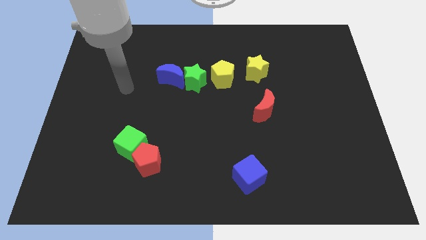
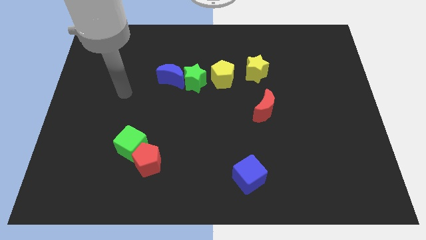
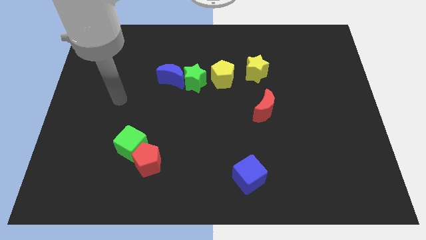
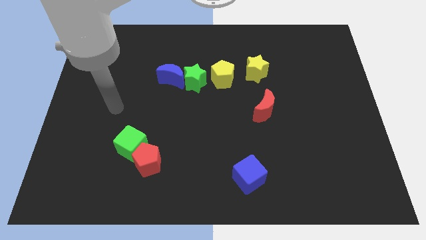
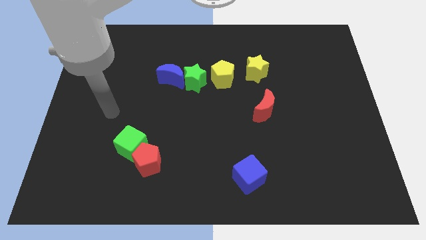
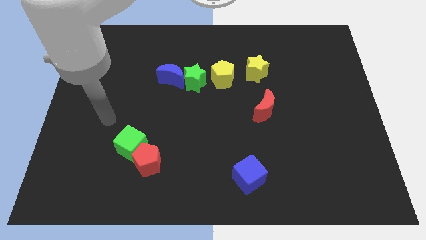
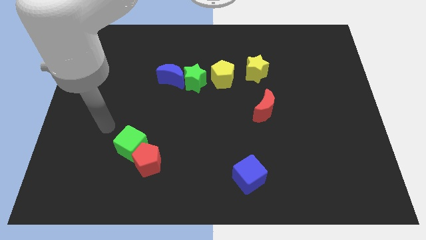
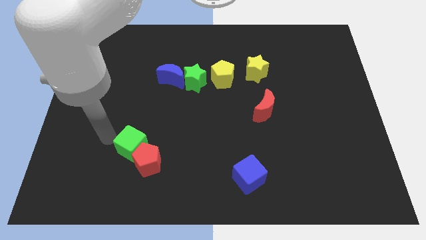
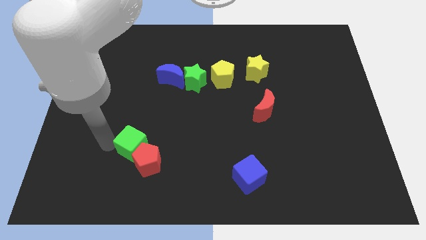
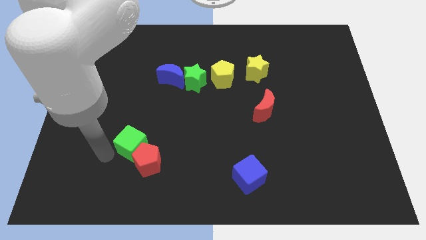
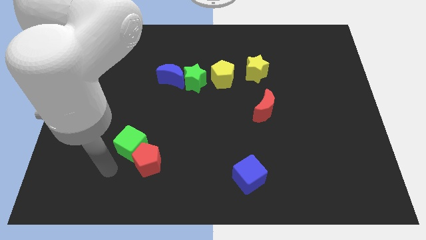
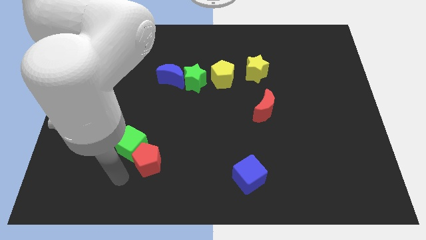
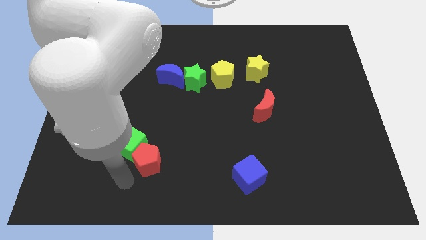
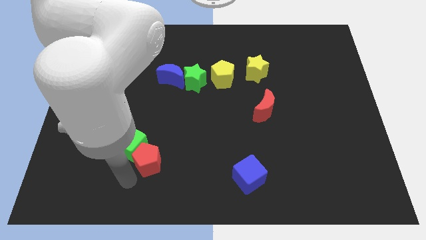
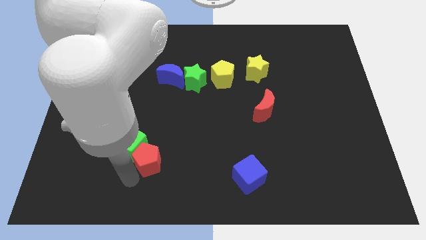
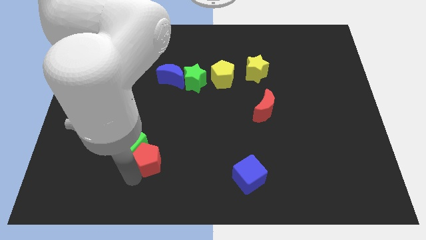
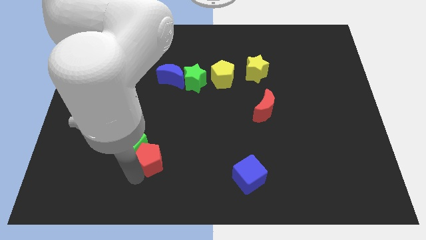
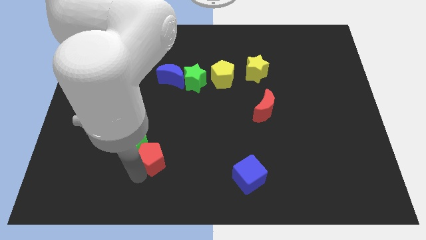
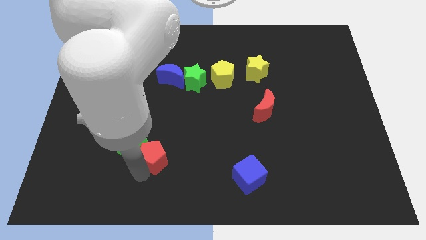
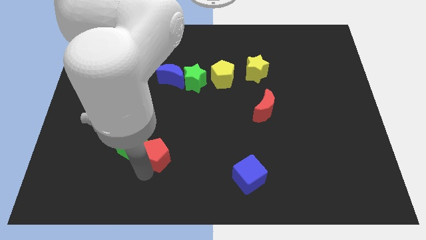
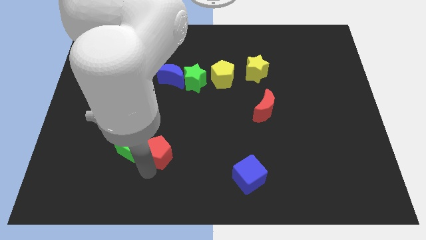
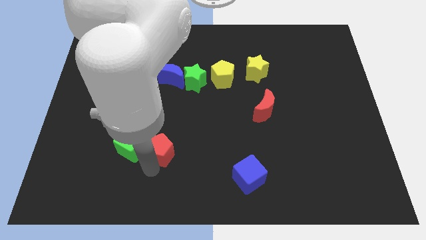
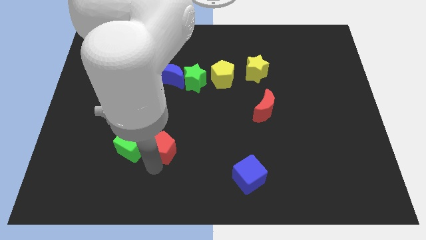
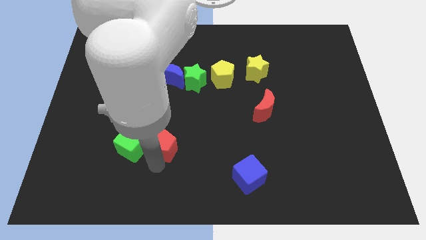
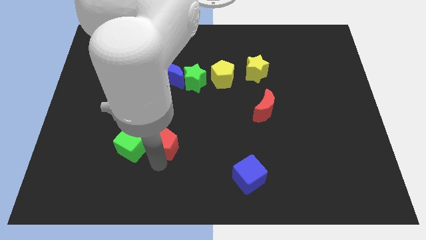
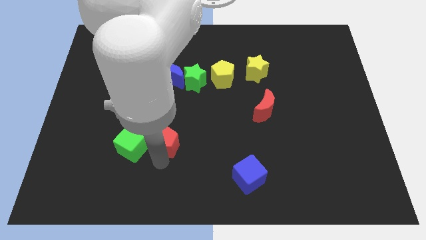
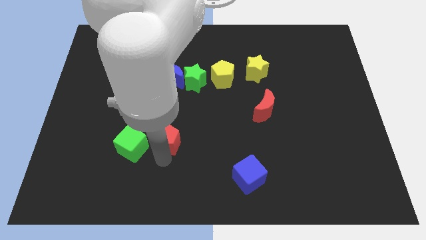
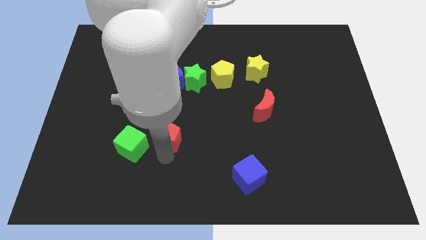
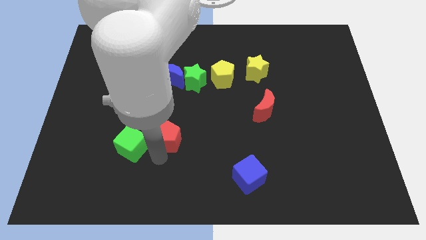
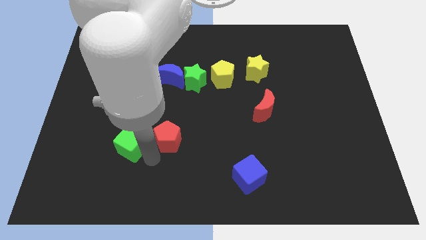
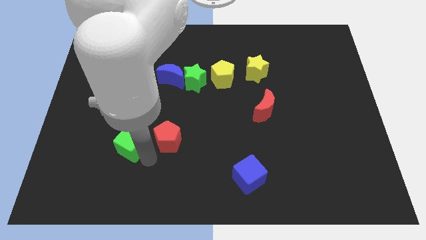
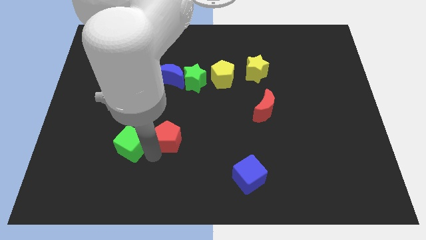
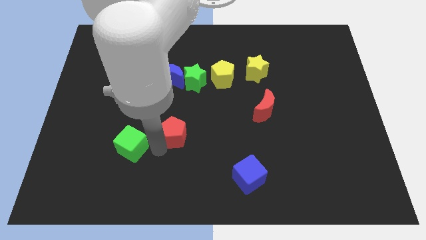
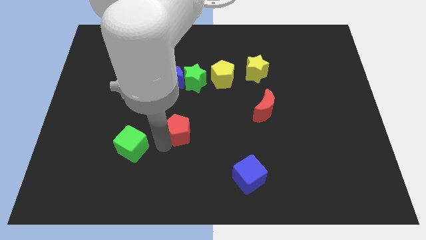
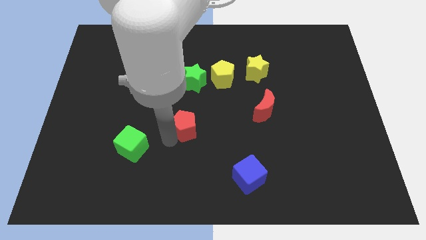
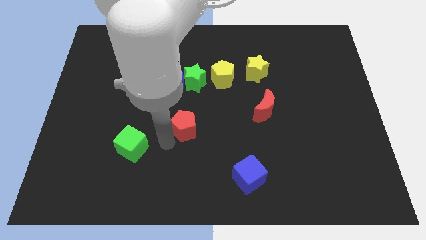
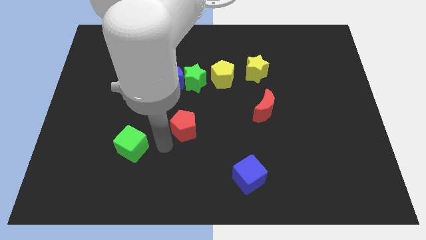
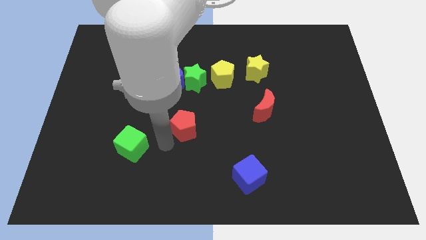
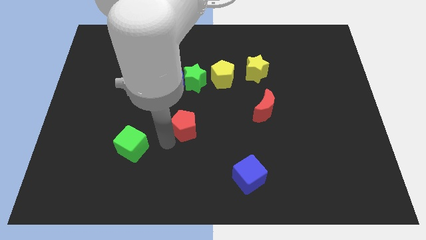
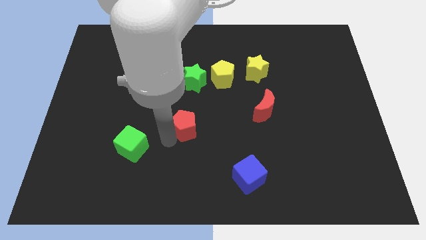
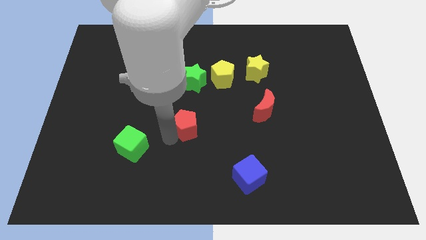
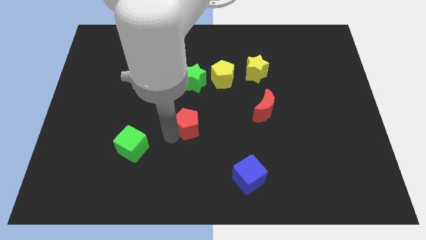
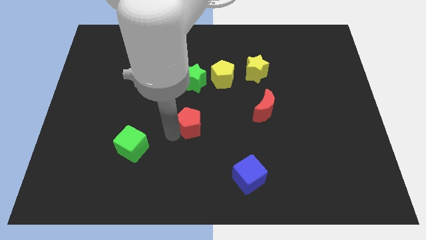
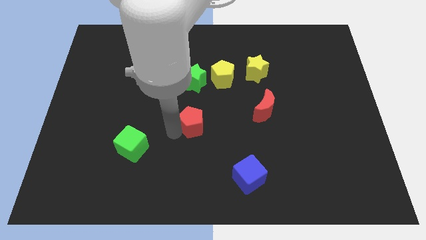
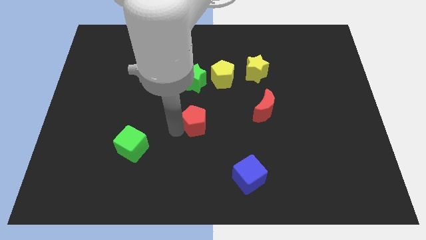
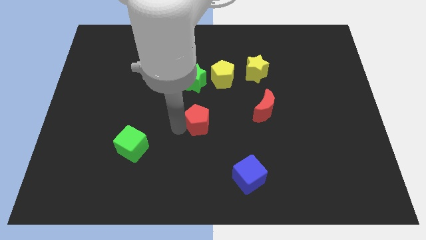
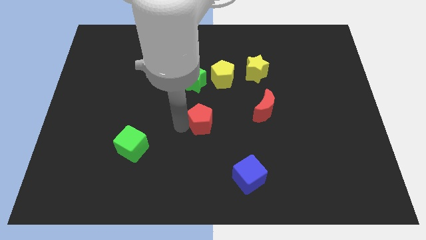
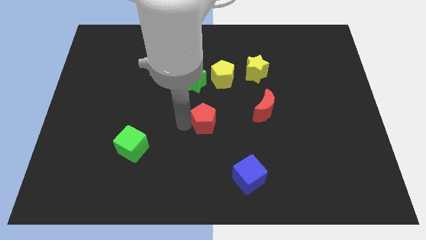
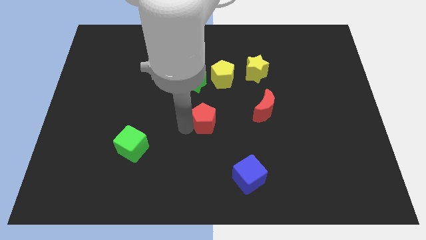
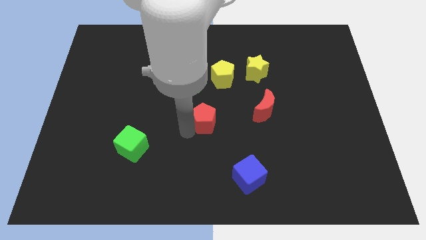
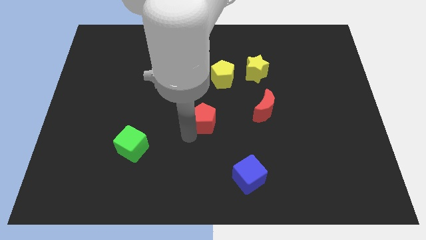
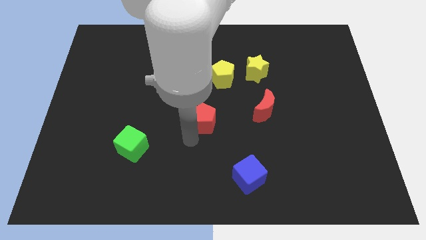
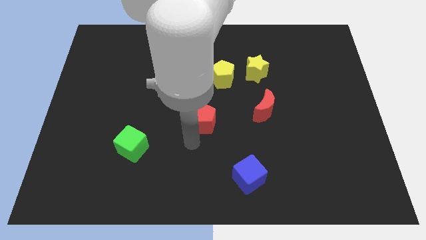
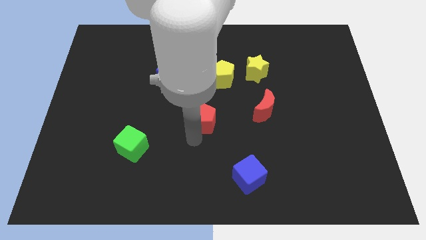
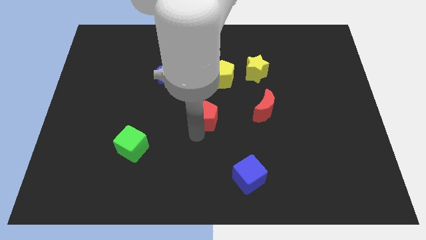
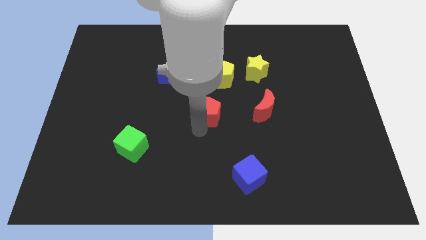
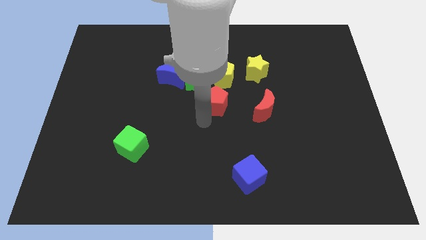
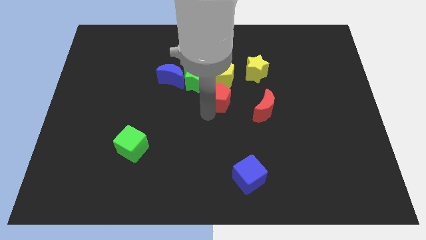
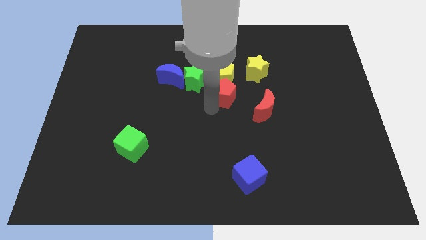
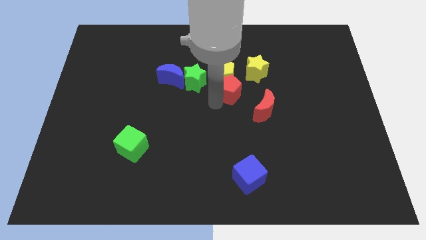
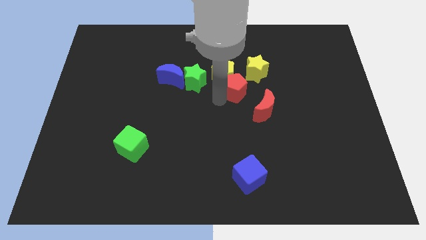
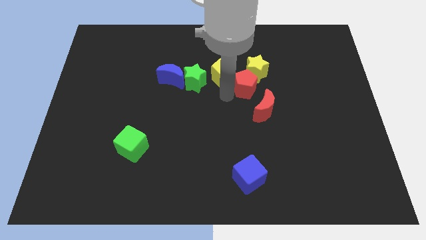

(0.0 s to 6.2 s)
move the red pentagon towards the yellow star

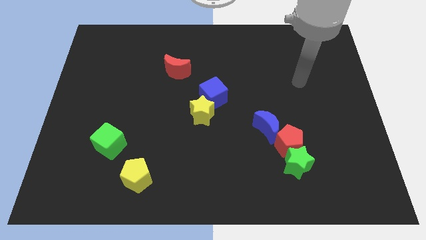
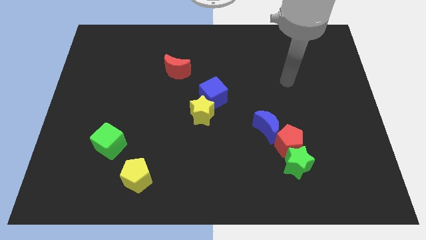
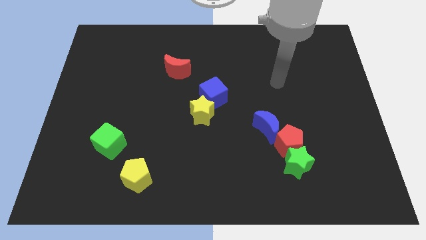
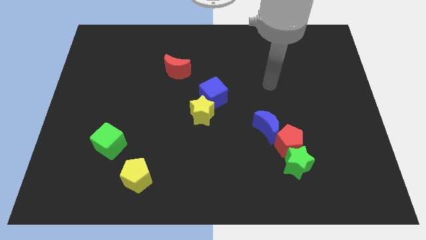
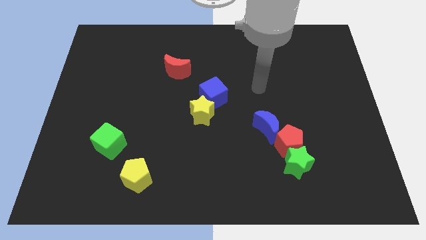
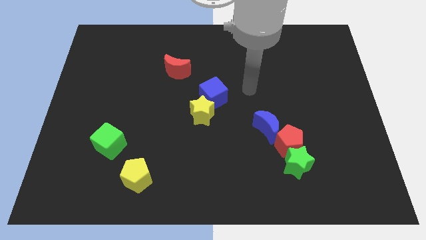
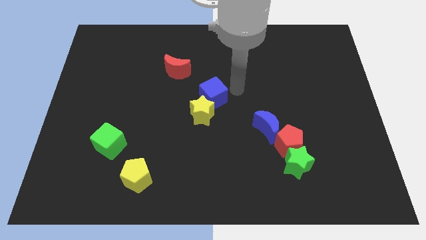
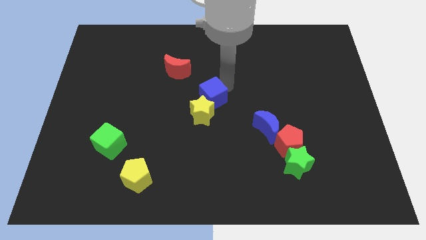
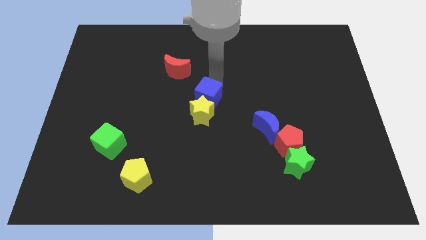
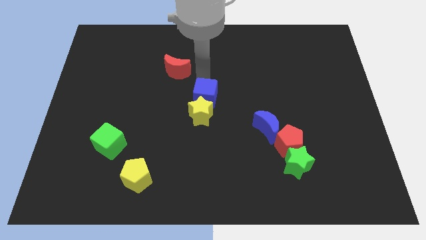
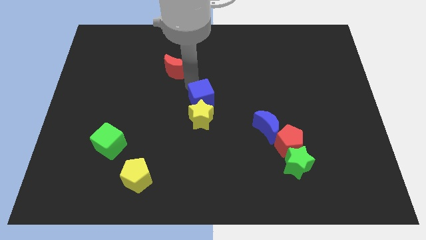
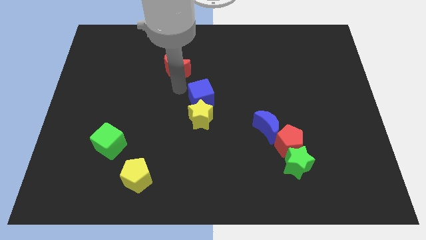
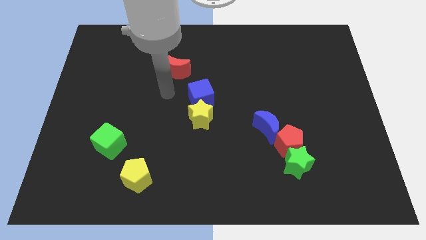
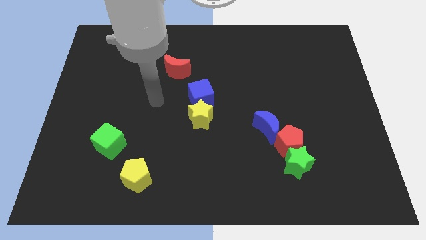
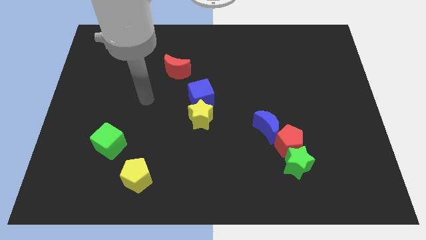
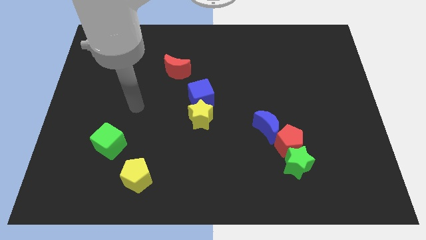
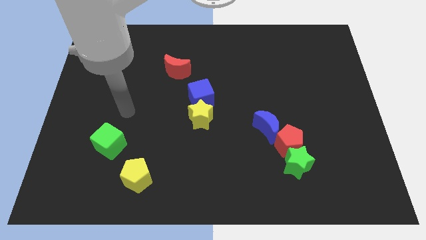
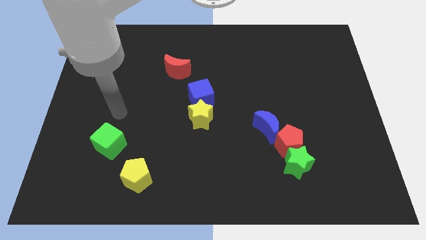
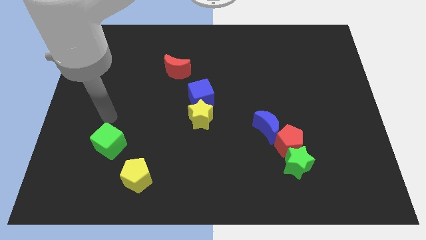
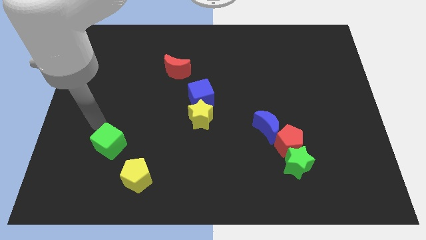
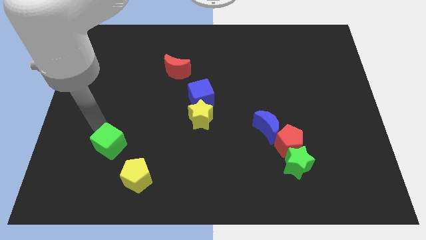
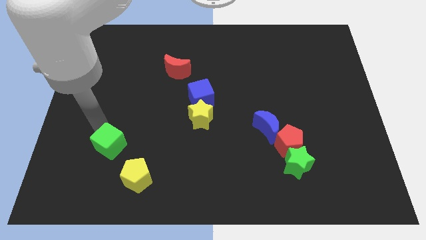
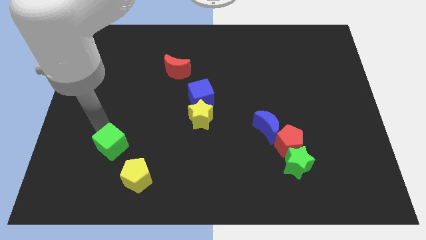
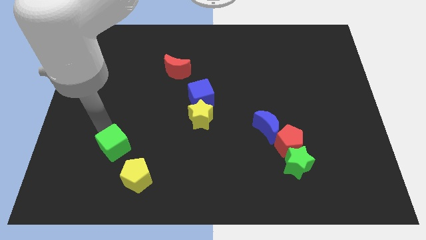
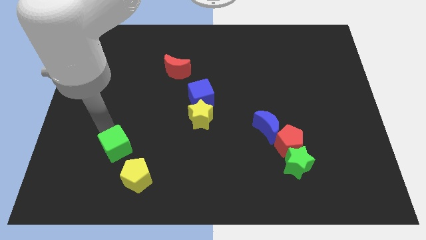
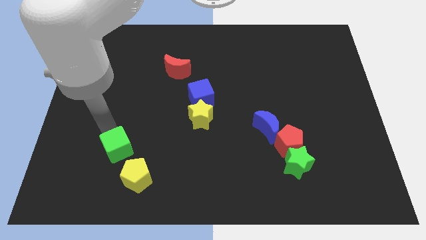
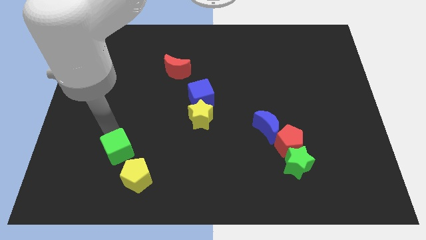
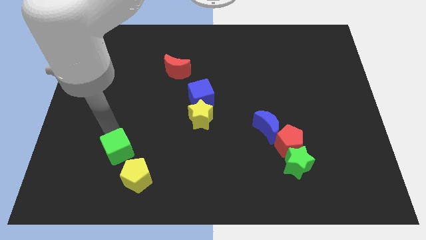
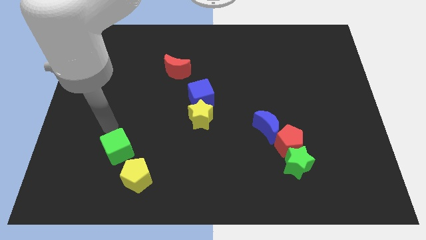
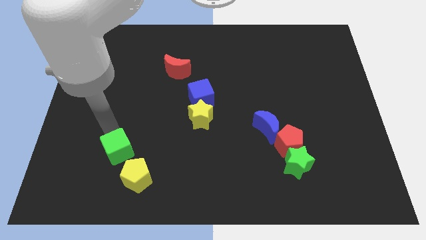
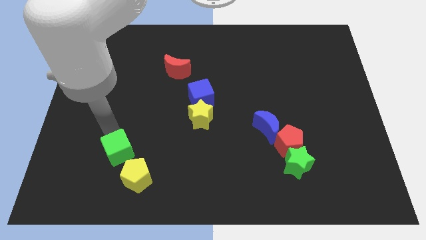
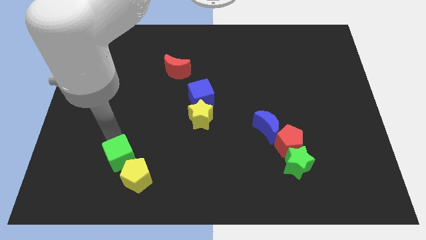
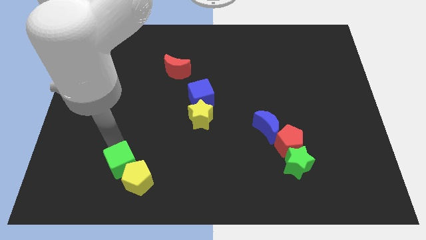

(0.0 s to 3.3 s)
slide the green cube next to the yellow pentagon
